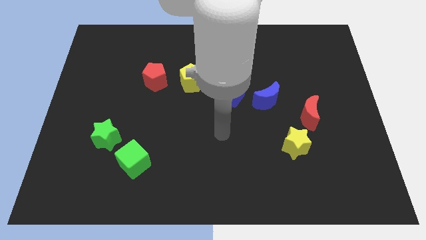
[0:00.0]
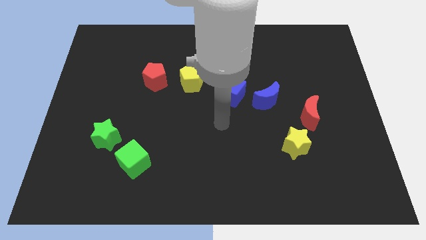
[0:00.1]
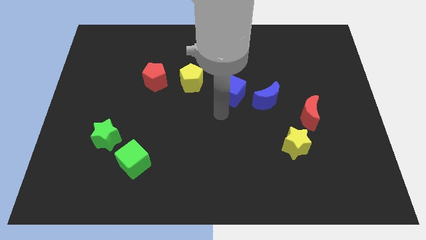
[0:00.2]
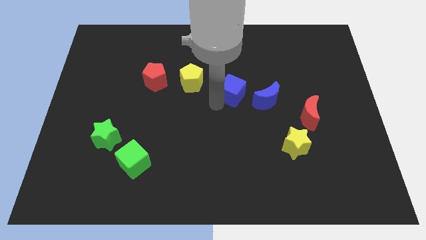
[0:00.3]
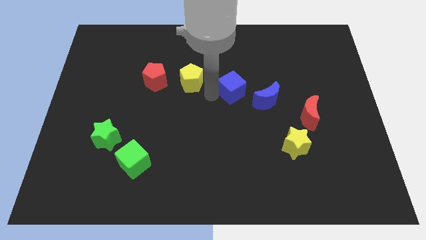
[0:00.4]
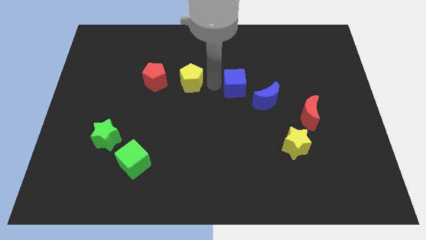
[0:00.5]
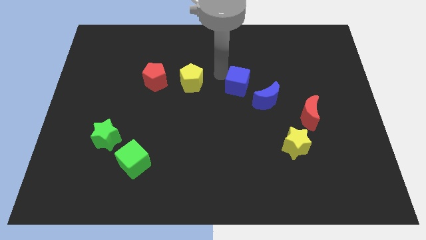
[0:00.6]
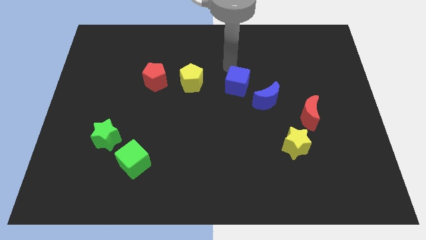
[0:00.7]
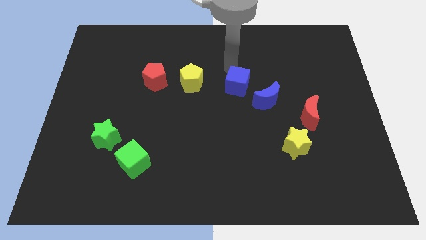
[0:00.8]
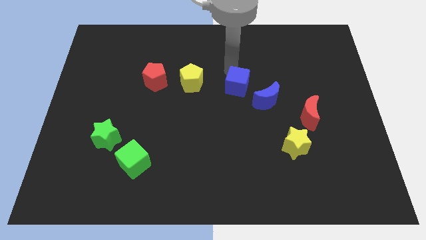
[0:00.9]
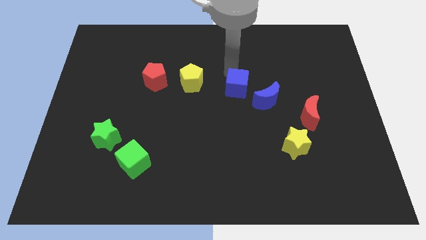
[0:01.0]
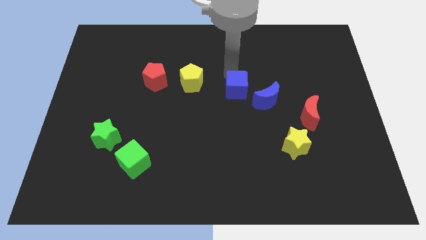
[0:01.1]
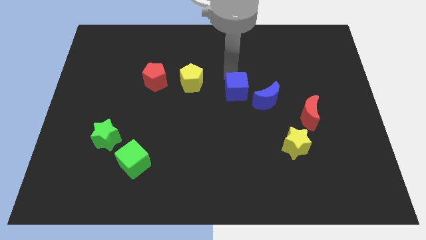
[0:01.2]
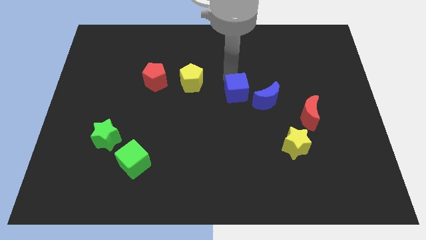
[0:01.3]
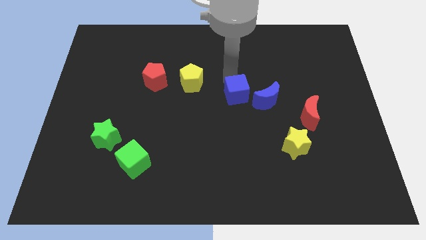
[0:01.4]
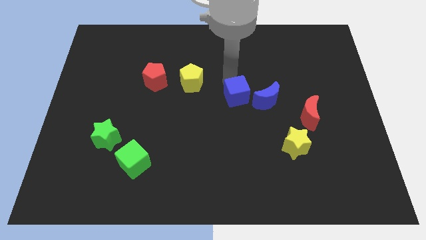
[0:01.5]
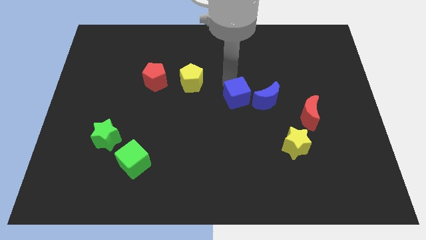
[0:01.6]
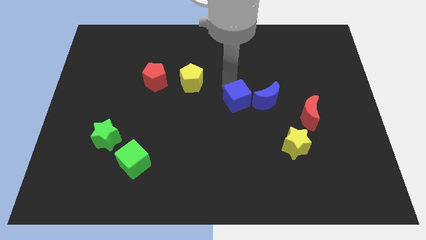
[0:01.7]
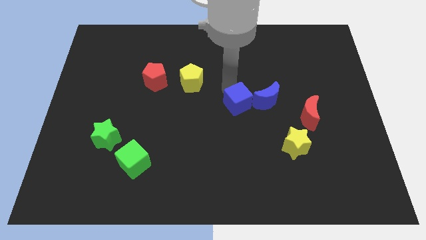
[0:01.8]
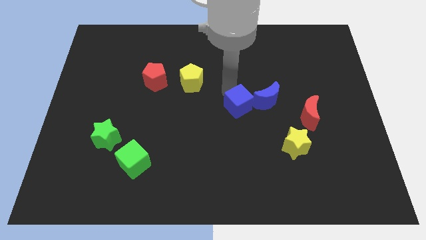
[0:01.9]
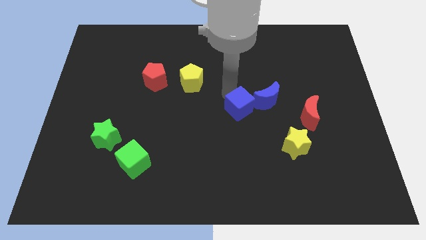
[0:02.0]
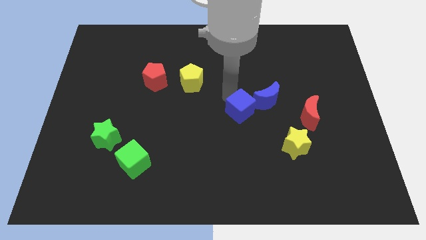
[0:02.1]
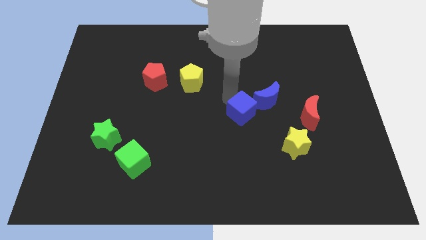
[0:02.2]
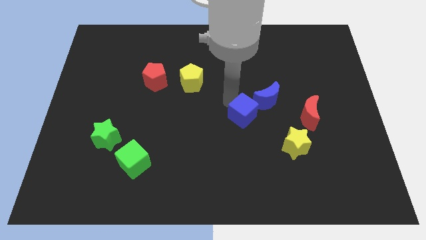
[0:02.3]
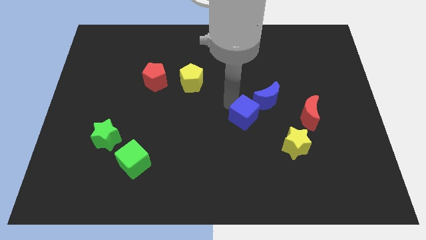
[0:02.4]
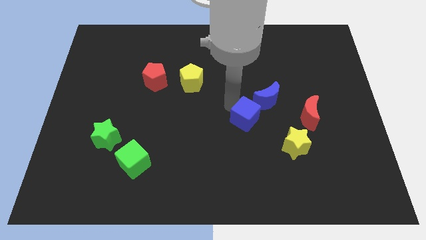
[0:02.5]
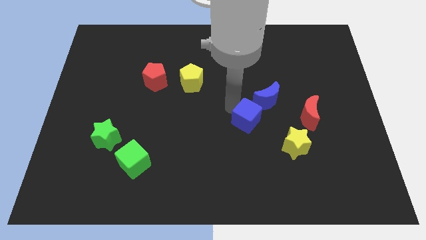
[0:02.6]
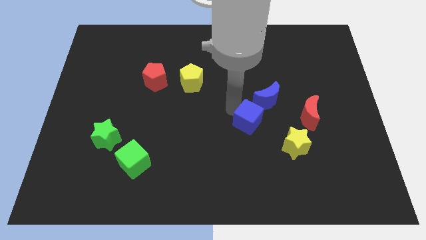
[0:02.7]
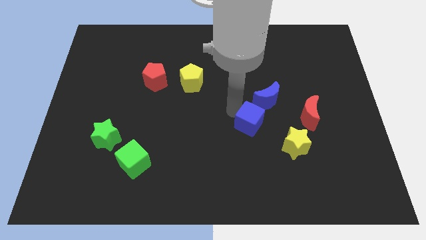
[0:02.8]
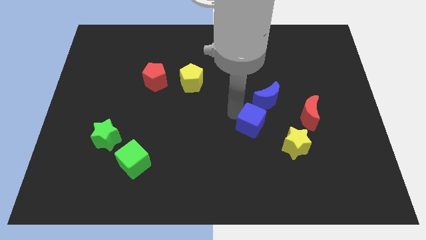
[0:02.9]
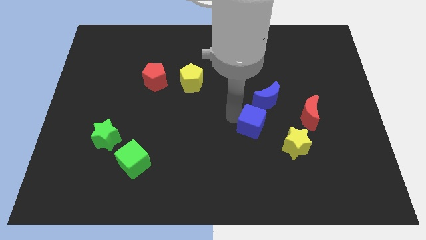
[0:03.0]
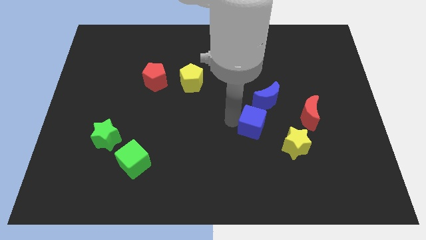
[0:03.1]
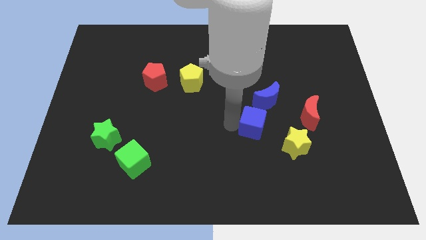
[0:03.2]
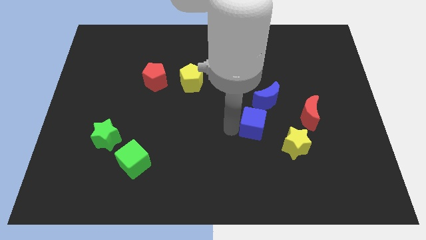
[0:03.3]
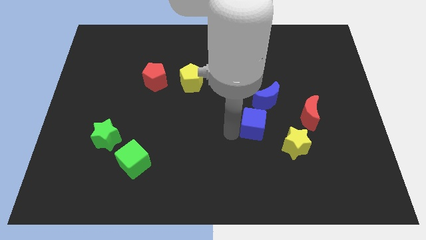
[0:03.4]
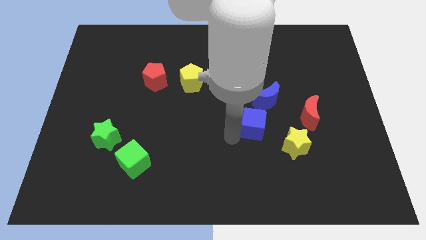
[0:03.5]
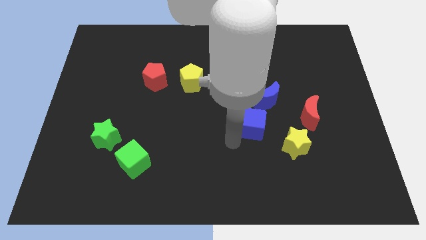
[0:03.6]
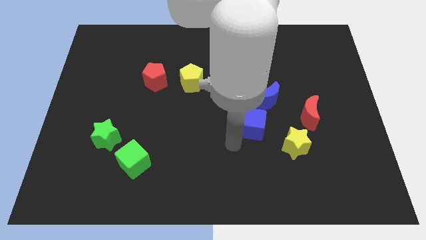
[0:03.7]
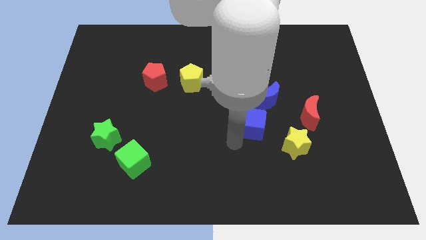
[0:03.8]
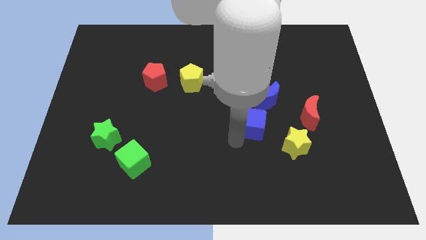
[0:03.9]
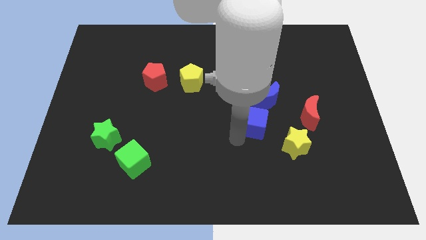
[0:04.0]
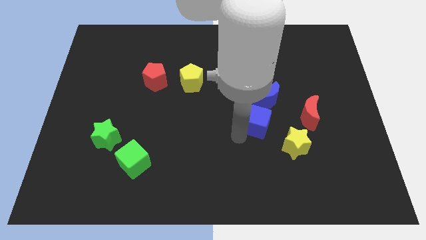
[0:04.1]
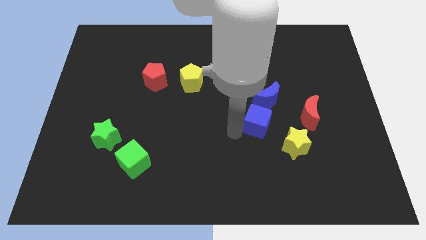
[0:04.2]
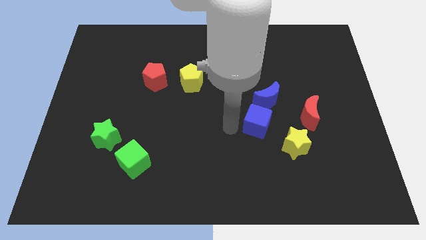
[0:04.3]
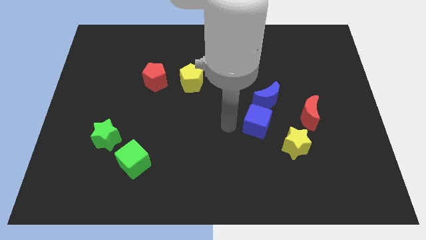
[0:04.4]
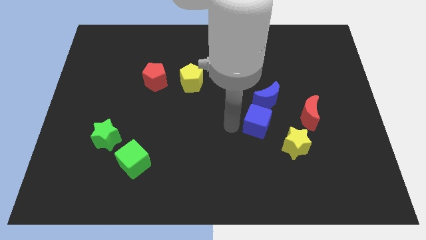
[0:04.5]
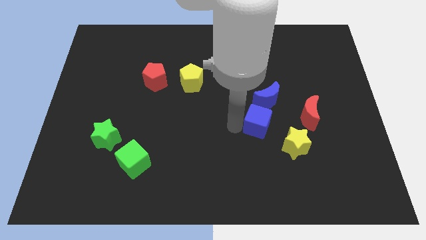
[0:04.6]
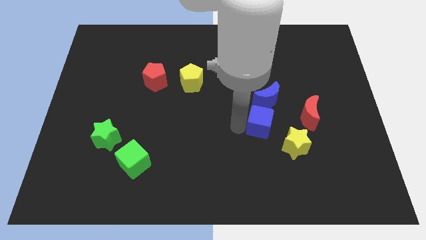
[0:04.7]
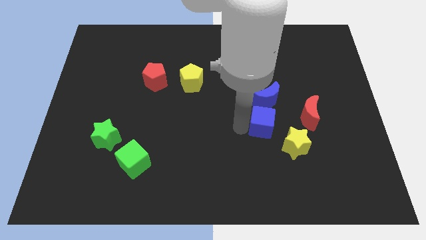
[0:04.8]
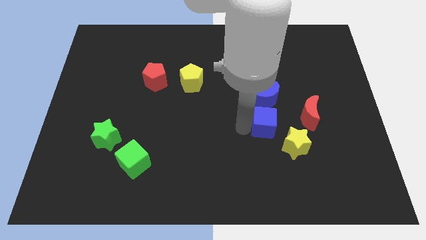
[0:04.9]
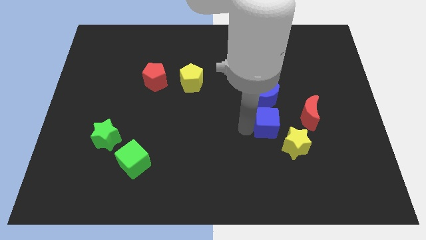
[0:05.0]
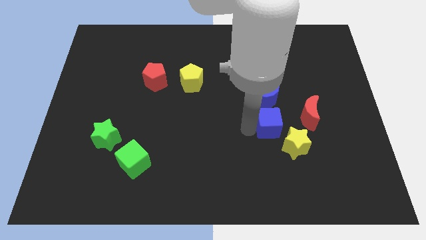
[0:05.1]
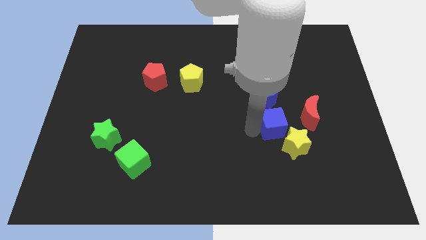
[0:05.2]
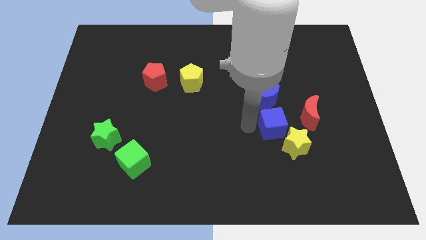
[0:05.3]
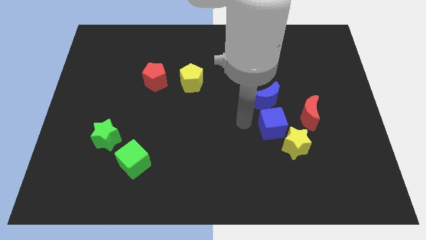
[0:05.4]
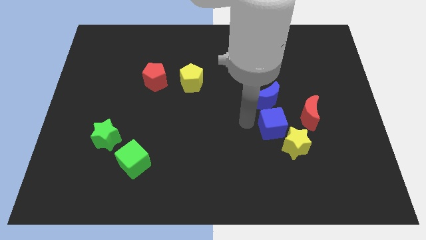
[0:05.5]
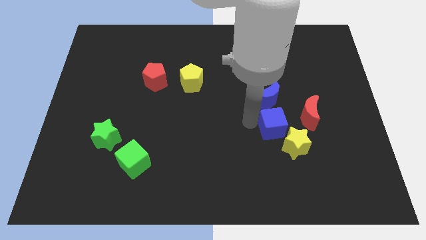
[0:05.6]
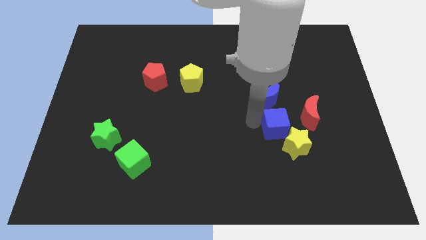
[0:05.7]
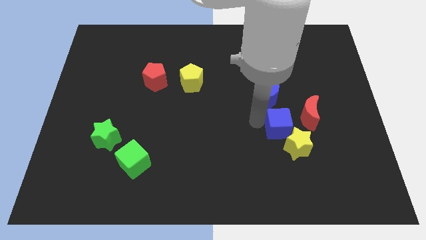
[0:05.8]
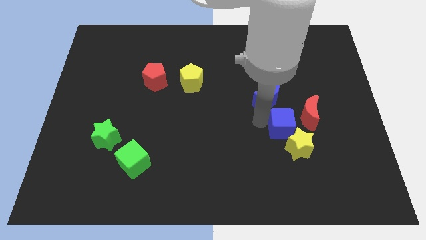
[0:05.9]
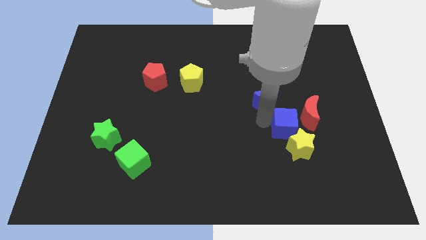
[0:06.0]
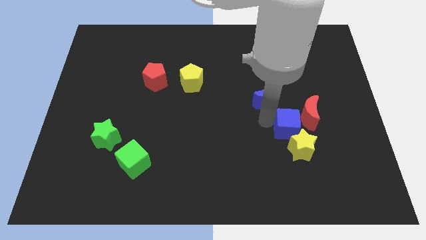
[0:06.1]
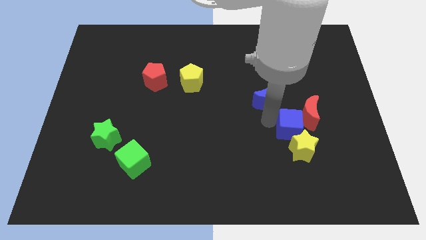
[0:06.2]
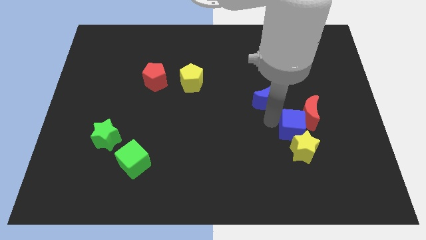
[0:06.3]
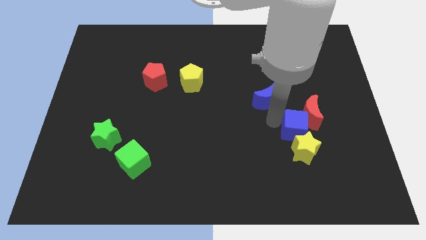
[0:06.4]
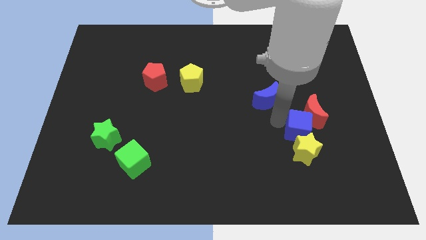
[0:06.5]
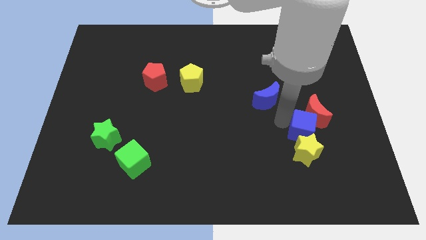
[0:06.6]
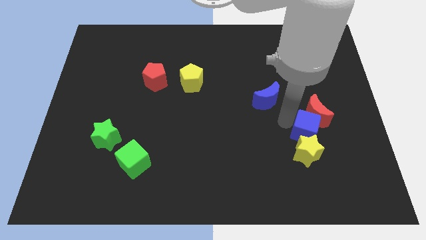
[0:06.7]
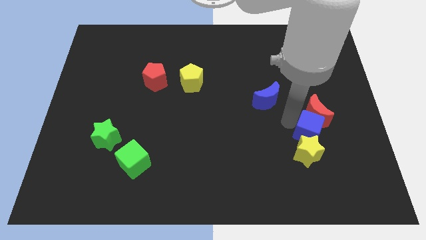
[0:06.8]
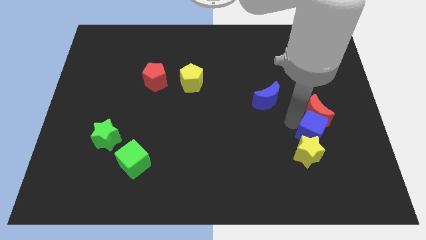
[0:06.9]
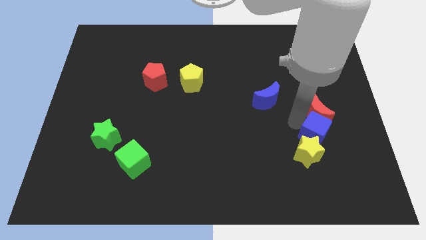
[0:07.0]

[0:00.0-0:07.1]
slide the blue cube down and then to the right

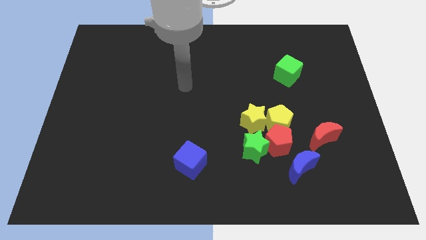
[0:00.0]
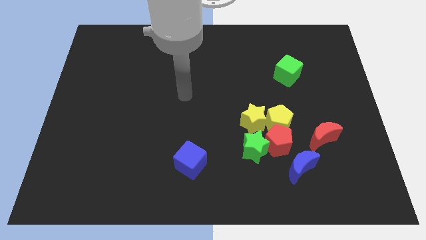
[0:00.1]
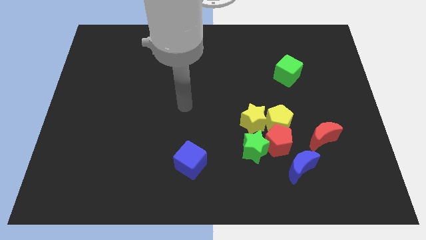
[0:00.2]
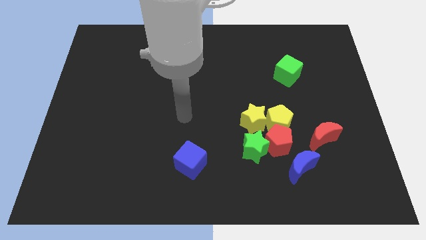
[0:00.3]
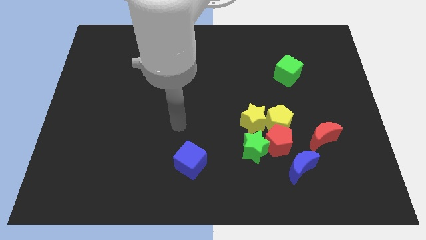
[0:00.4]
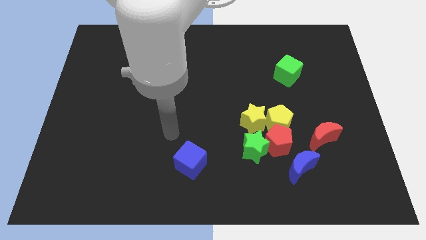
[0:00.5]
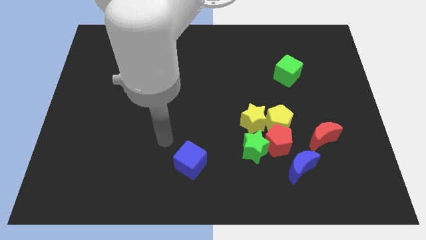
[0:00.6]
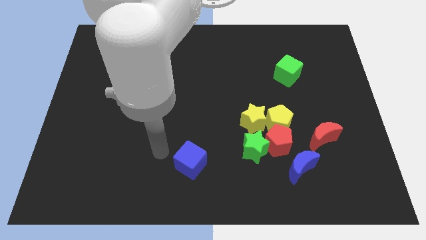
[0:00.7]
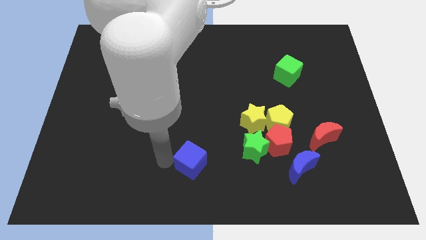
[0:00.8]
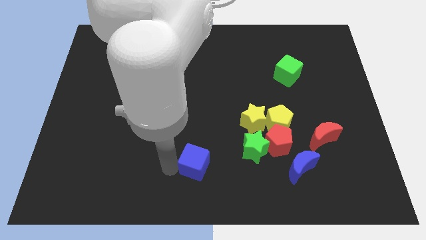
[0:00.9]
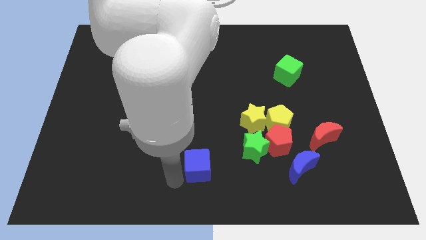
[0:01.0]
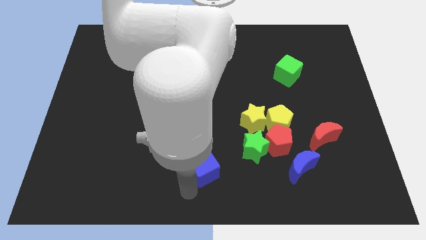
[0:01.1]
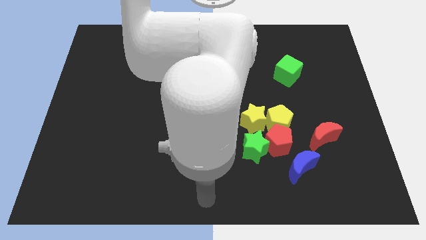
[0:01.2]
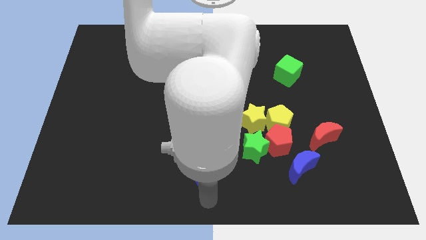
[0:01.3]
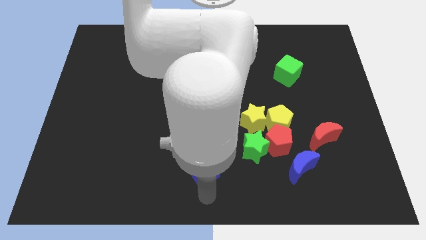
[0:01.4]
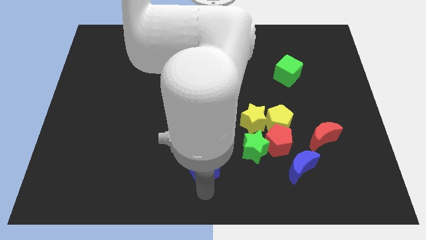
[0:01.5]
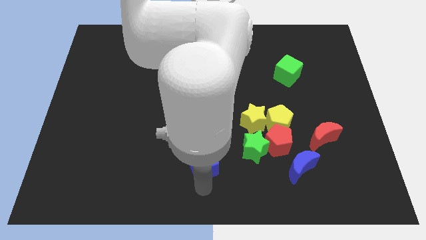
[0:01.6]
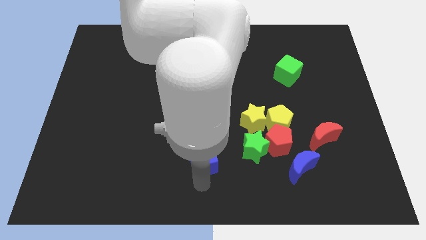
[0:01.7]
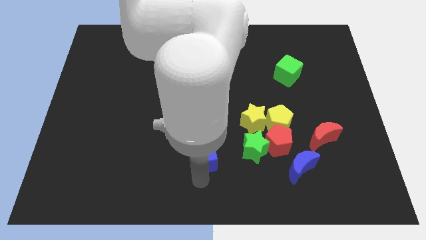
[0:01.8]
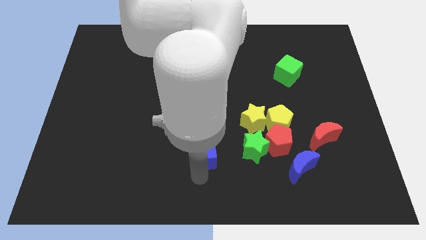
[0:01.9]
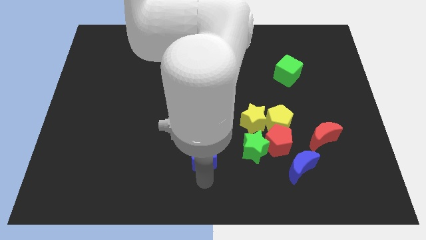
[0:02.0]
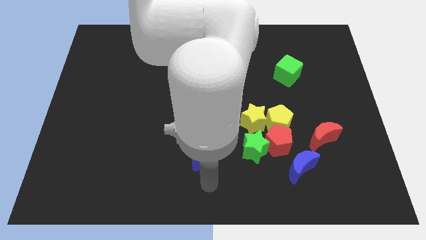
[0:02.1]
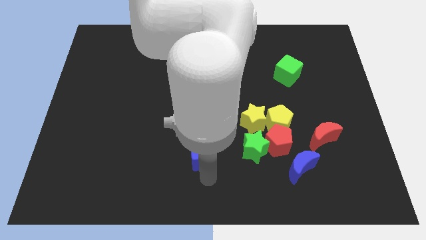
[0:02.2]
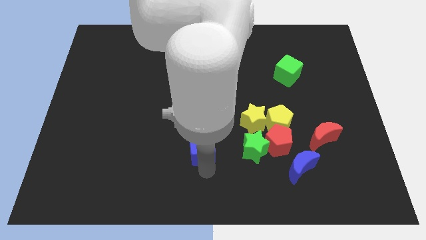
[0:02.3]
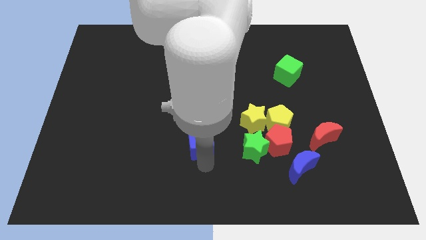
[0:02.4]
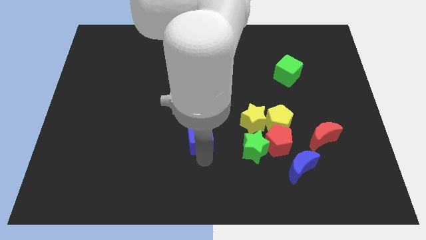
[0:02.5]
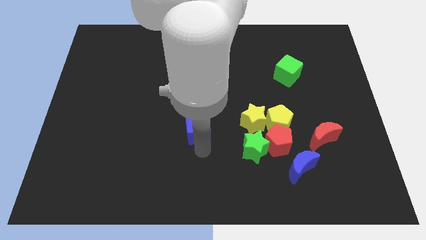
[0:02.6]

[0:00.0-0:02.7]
move the blue cube up a bit
